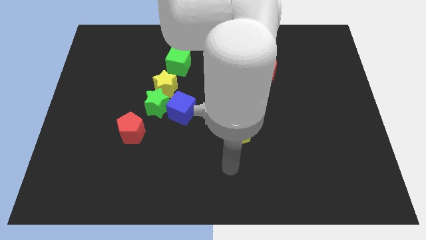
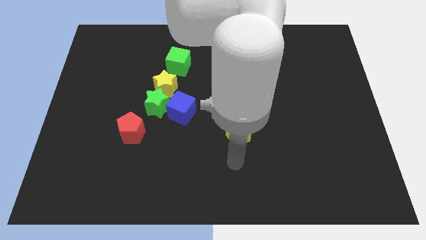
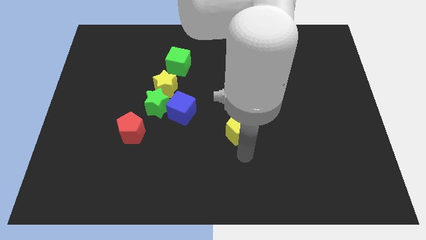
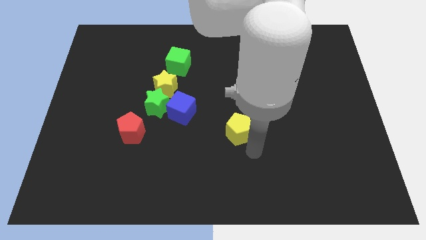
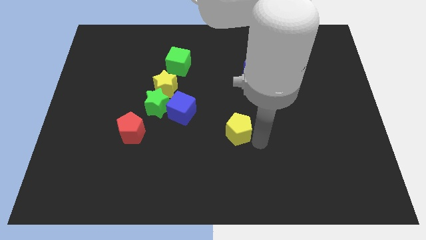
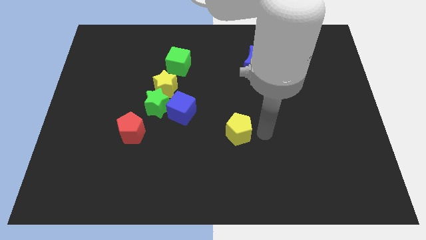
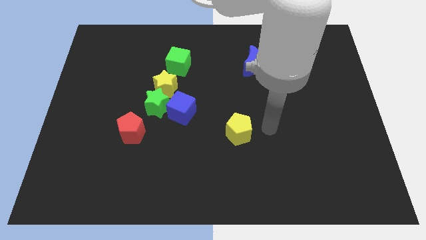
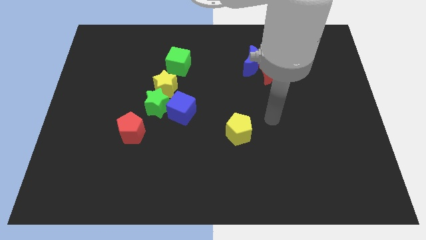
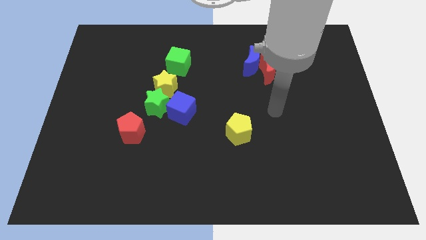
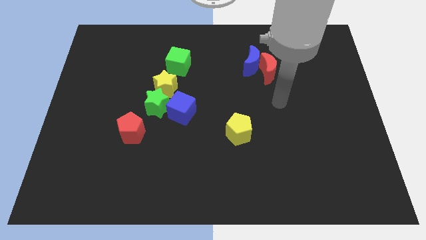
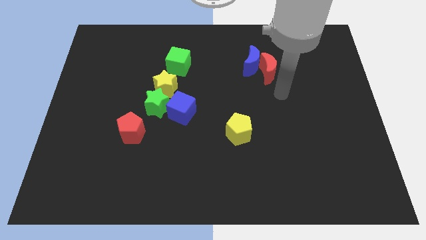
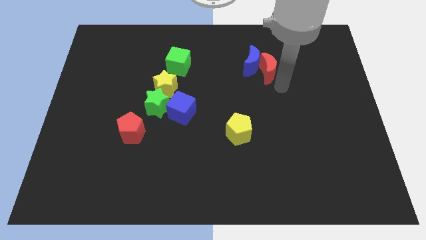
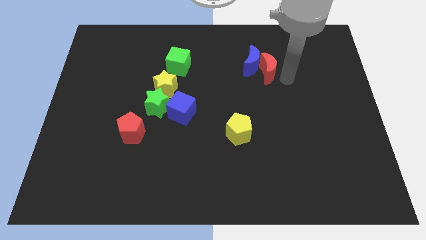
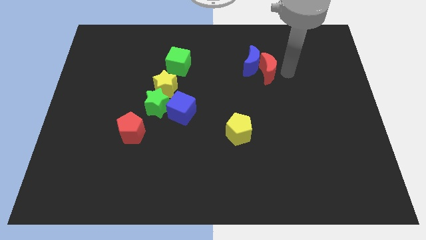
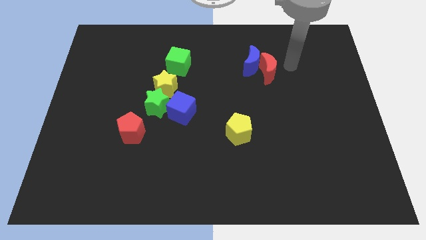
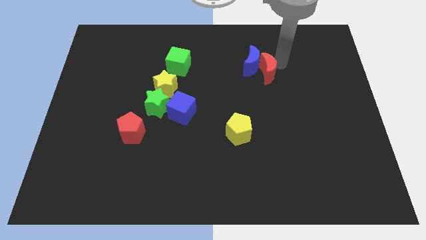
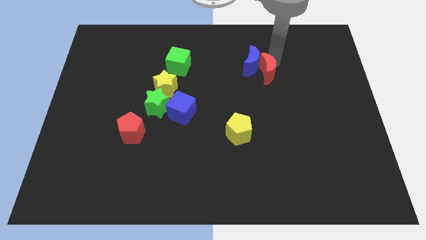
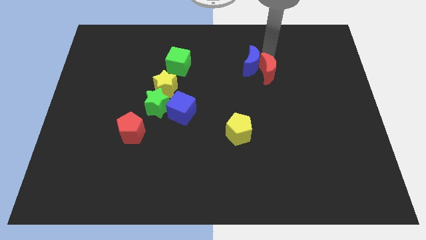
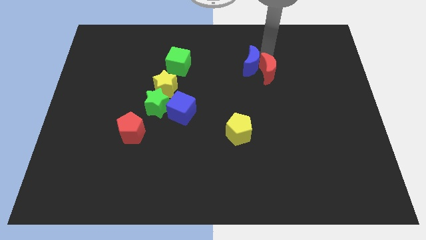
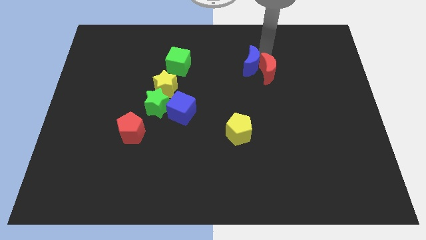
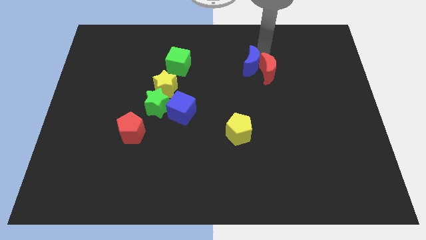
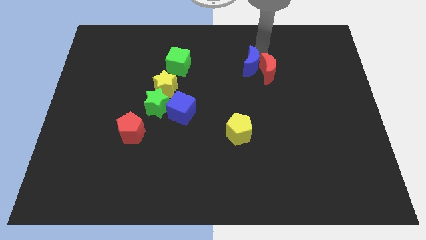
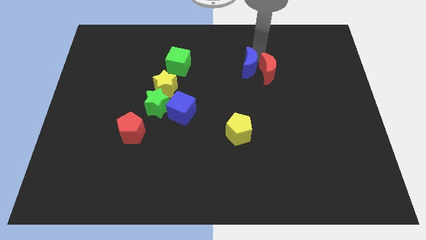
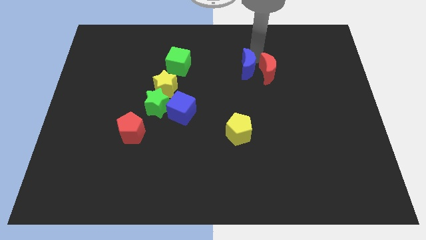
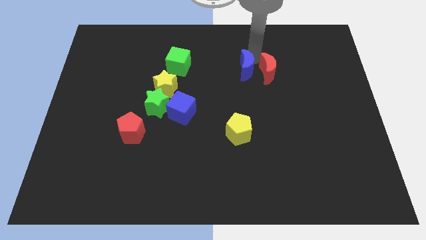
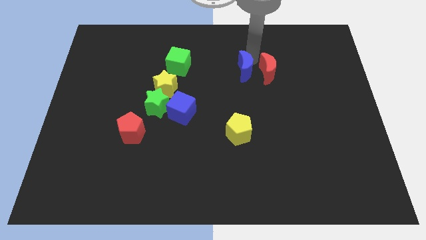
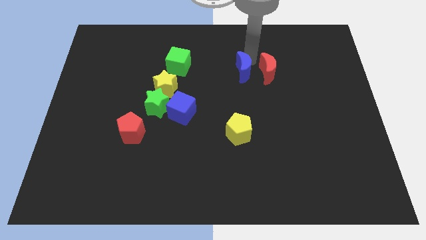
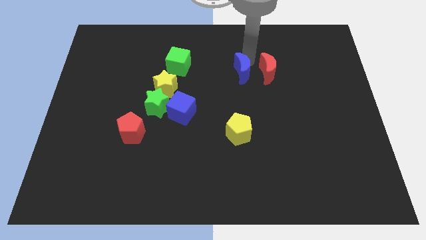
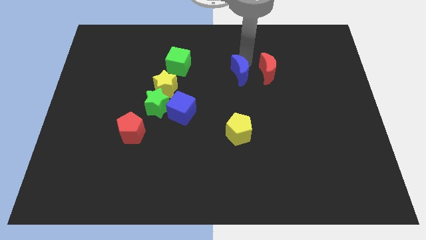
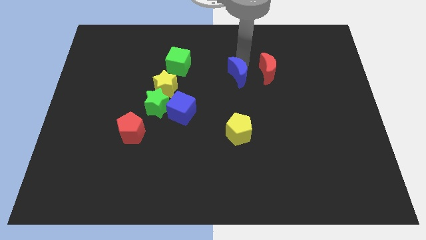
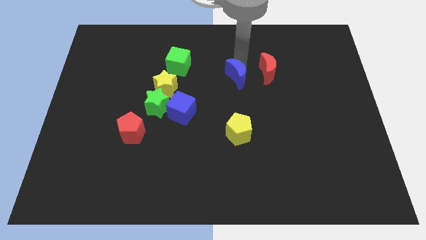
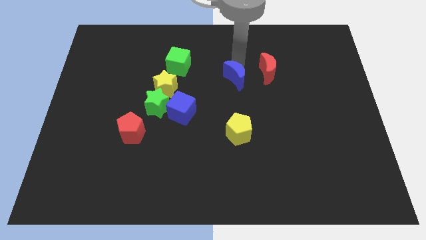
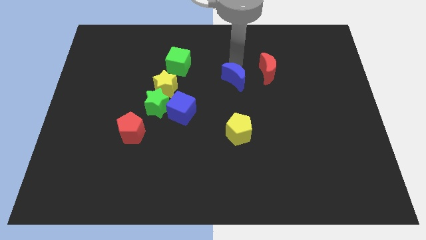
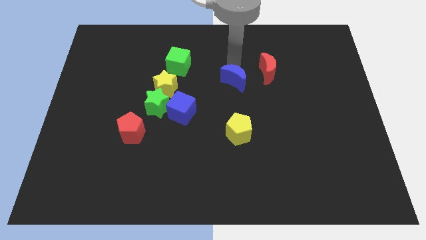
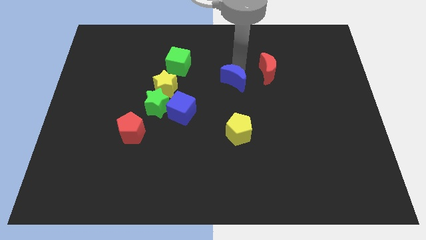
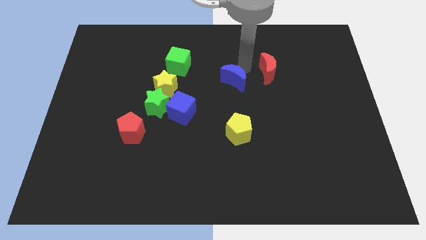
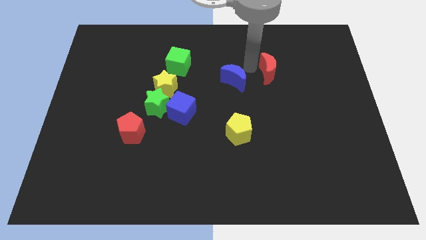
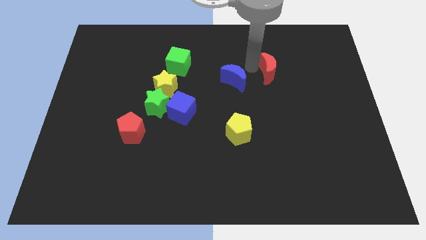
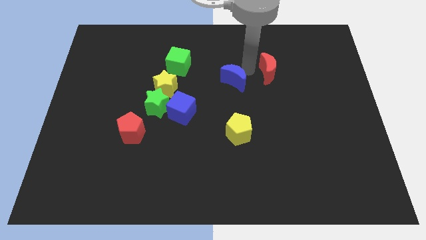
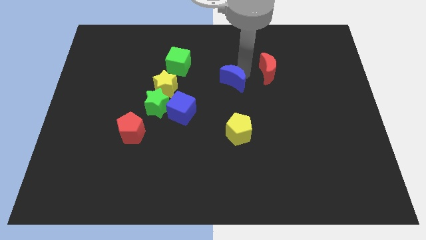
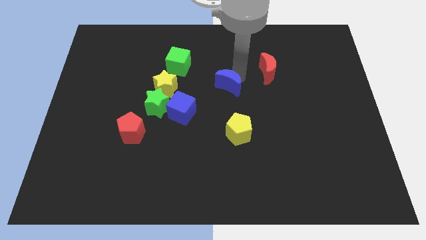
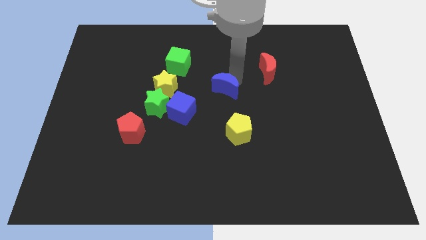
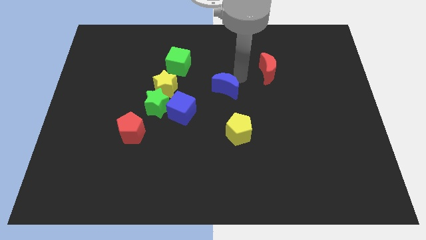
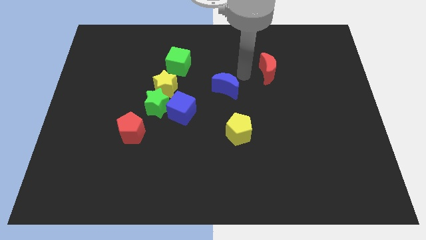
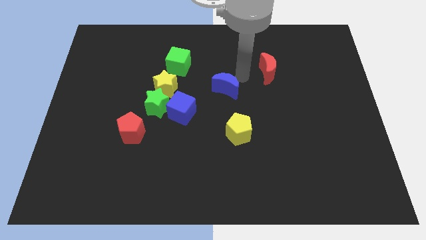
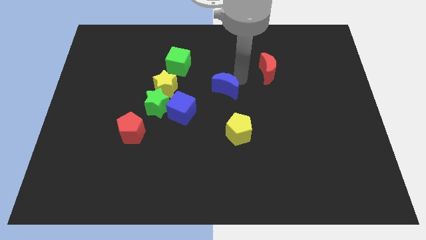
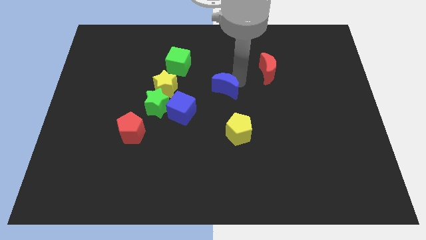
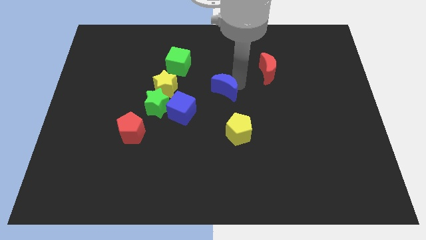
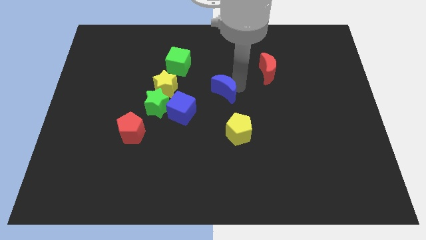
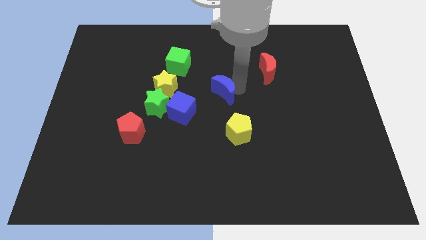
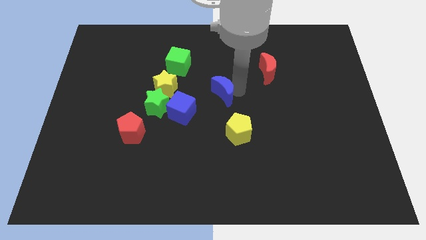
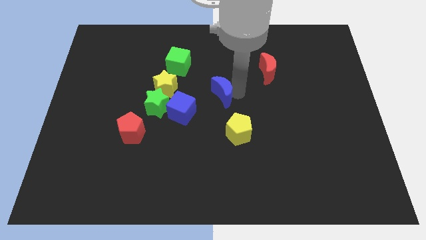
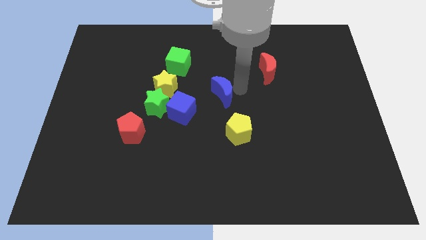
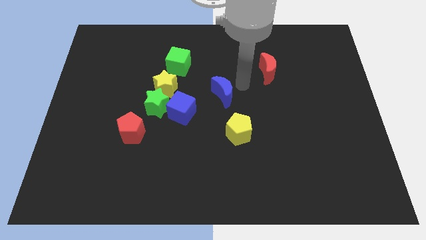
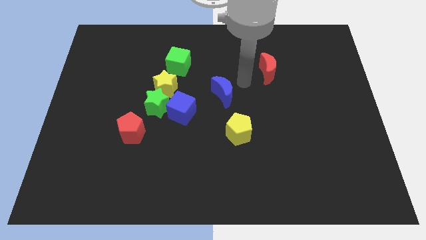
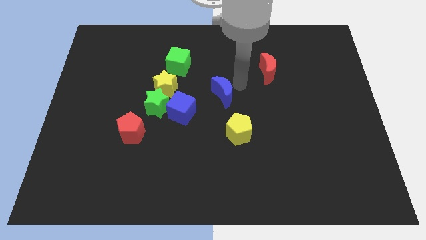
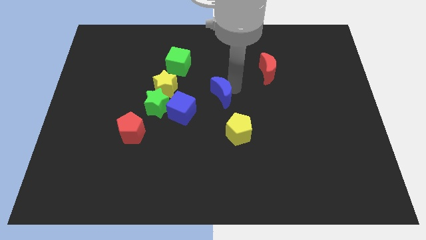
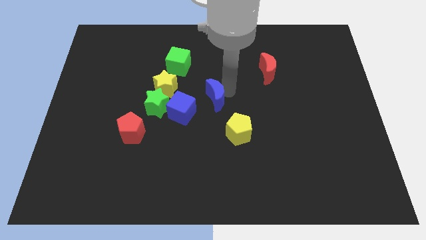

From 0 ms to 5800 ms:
put the blue moon to the right of the green star

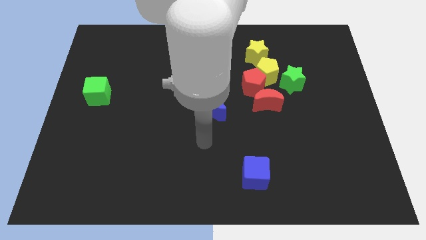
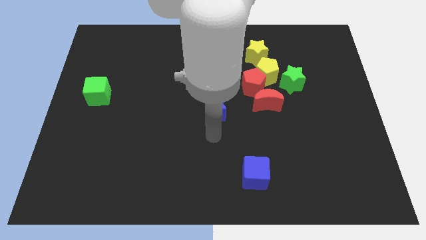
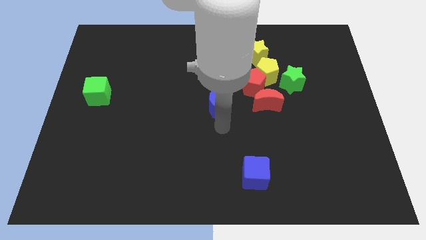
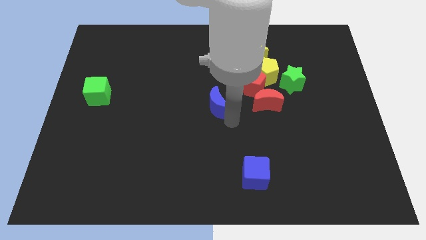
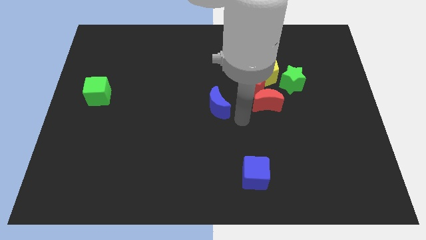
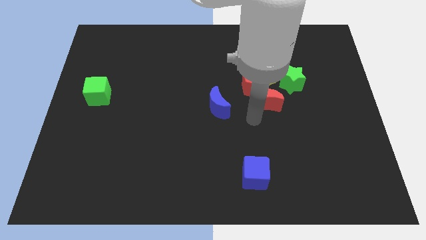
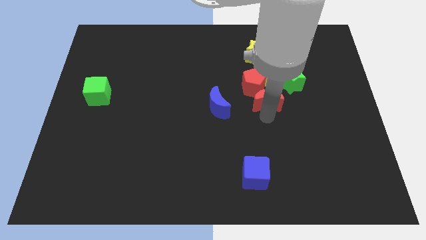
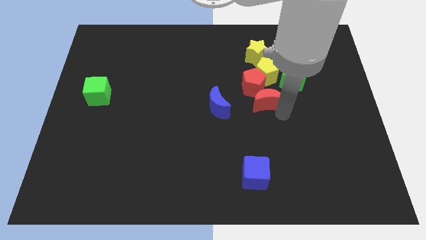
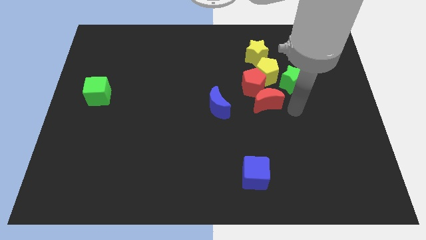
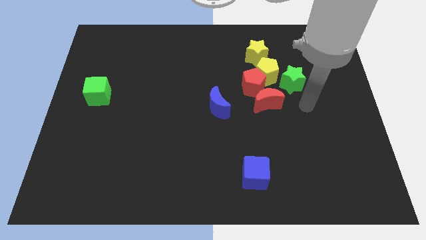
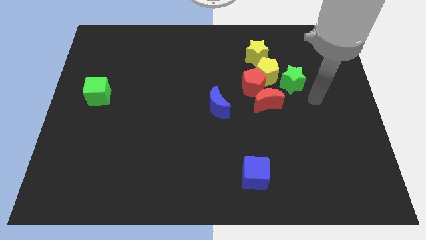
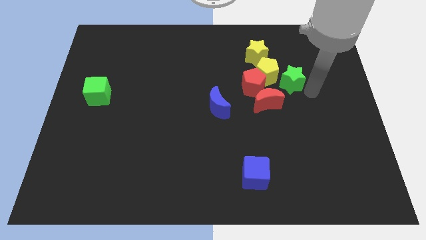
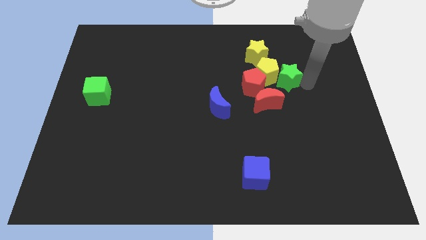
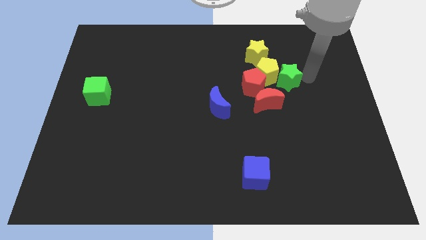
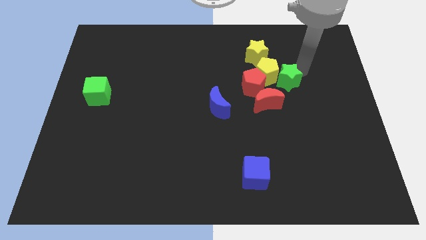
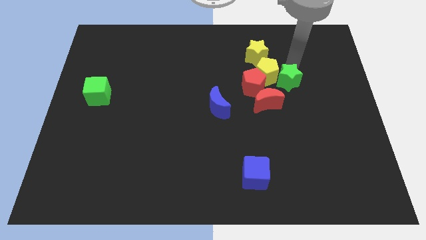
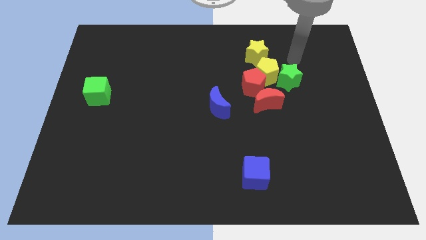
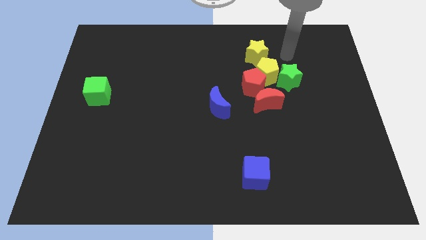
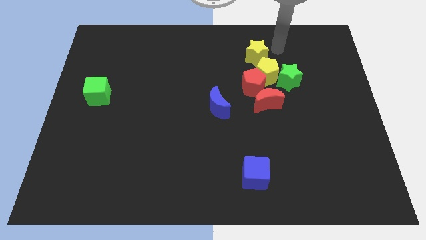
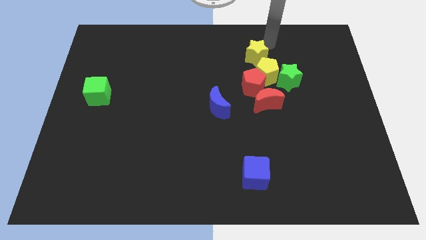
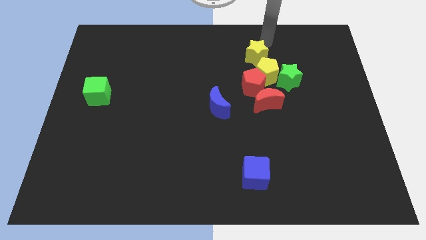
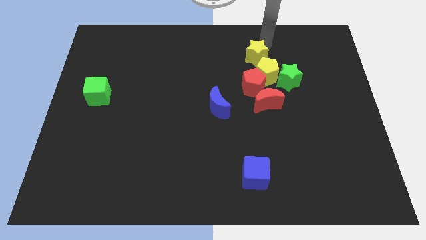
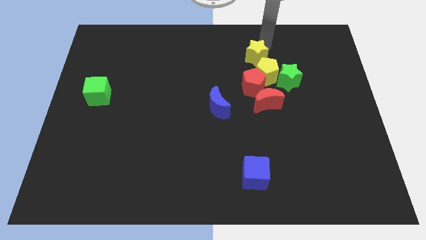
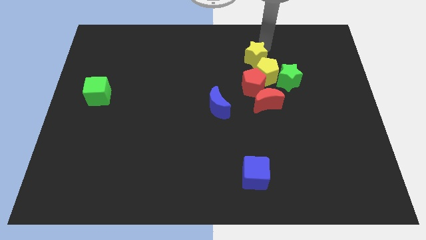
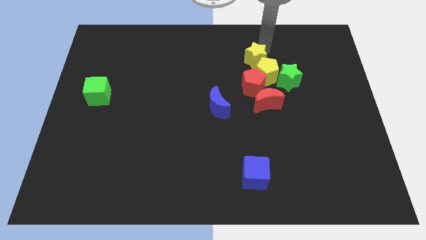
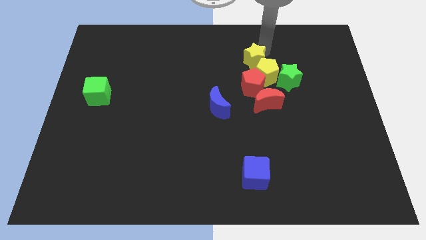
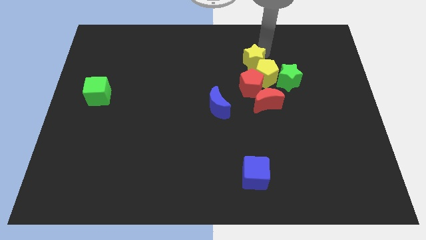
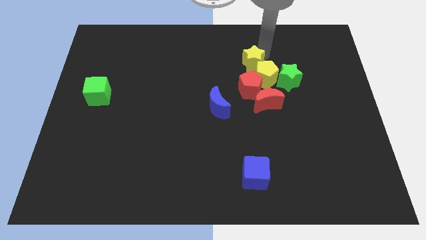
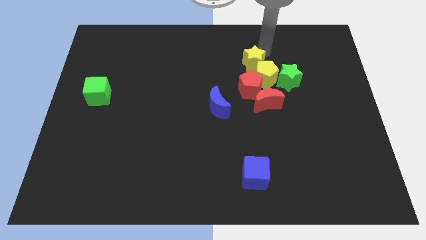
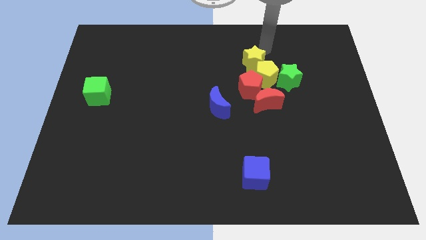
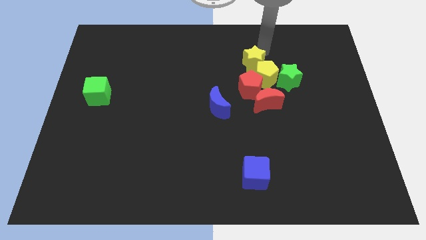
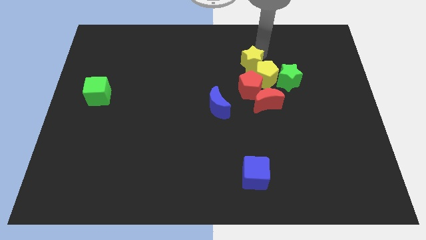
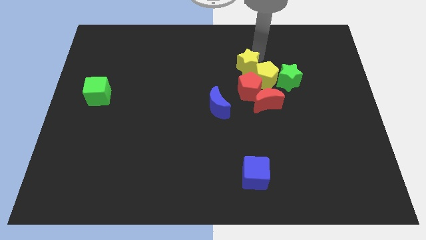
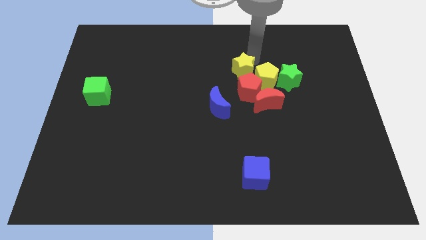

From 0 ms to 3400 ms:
push the yellow star to the top left of the red moon
